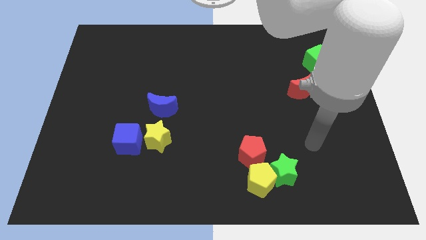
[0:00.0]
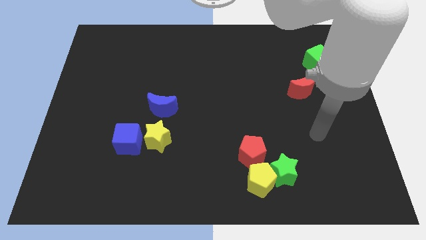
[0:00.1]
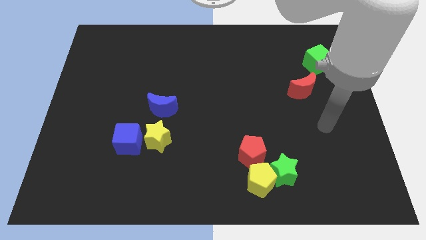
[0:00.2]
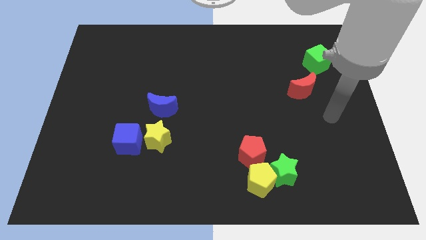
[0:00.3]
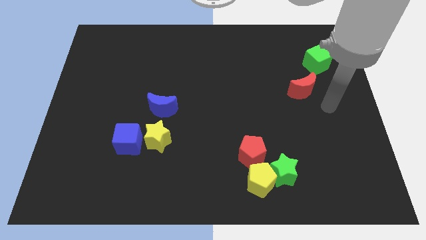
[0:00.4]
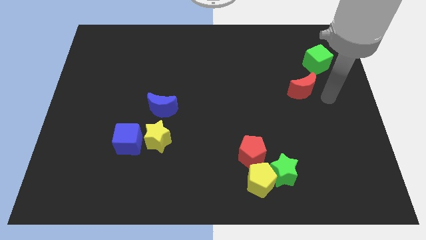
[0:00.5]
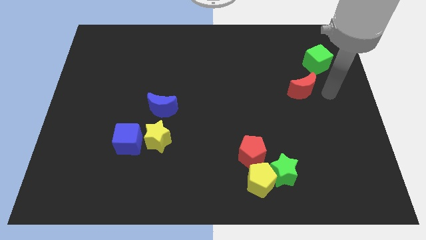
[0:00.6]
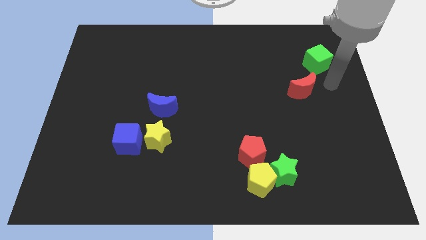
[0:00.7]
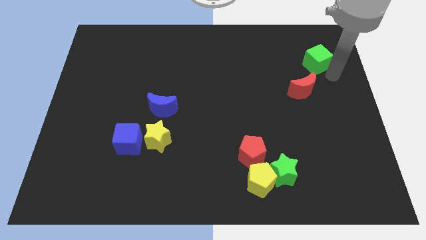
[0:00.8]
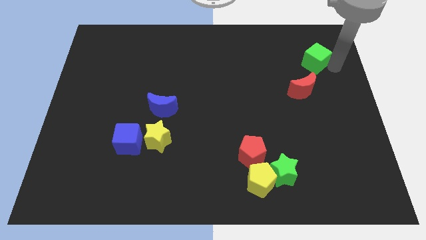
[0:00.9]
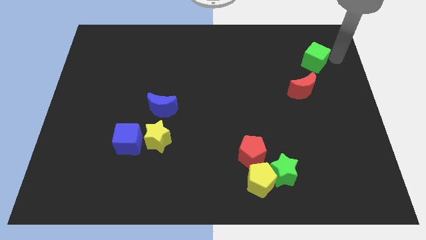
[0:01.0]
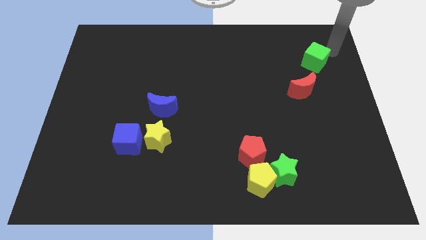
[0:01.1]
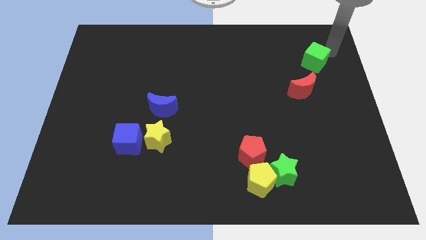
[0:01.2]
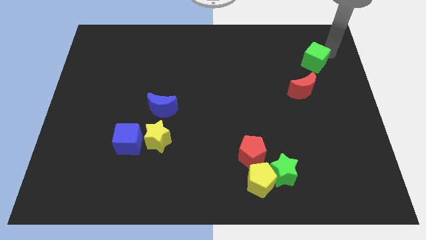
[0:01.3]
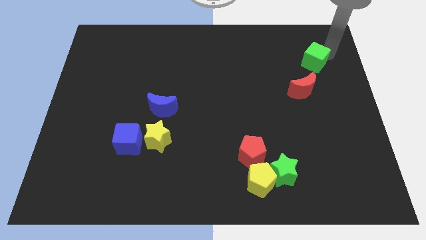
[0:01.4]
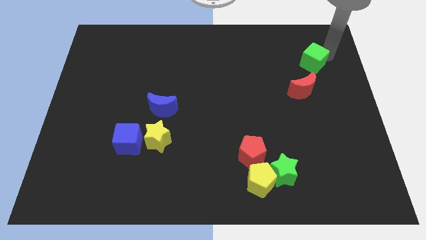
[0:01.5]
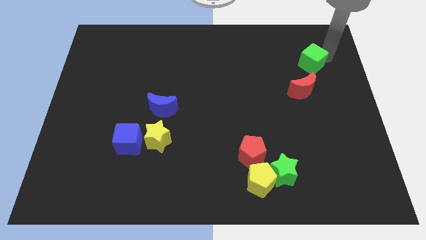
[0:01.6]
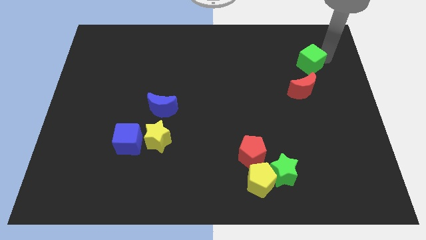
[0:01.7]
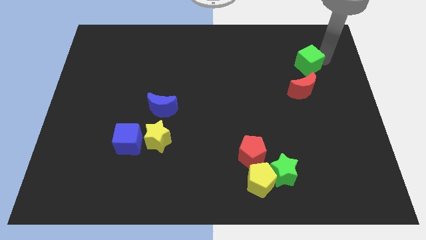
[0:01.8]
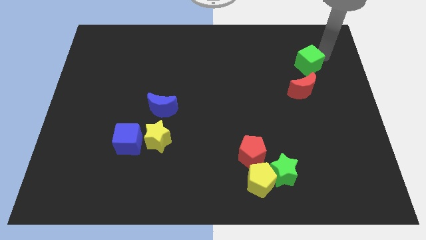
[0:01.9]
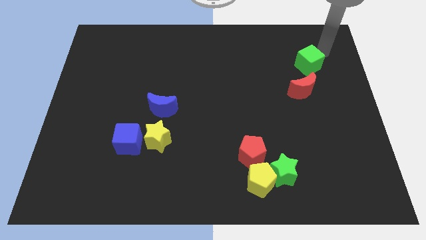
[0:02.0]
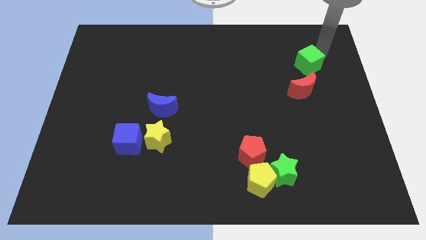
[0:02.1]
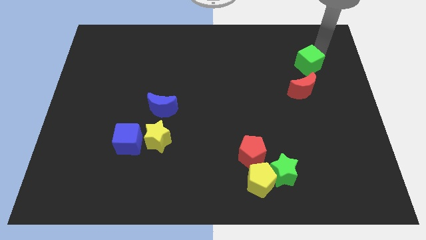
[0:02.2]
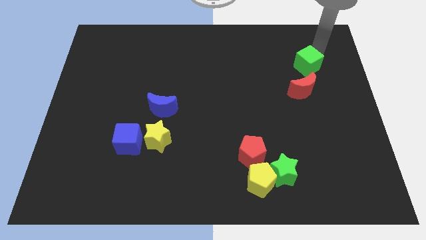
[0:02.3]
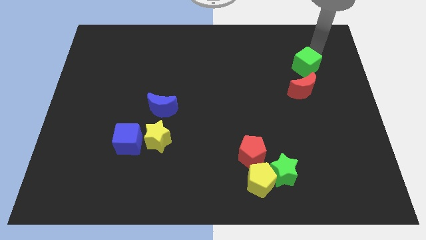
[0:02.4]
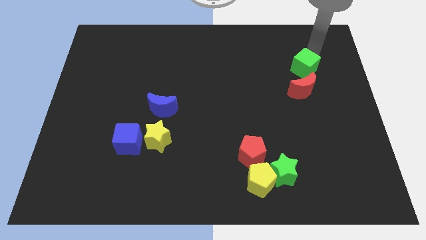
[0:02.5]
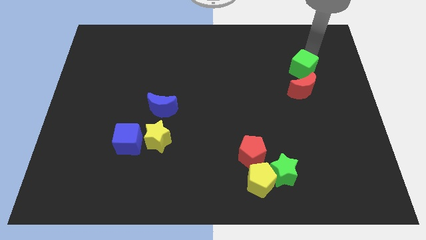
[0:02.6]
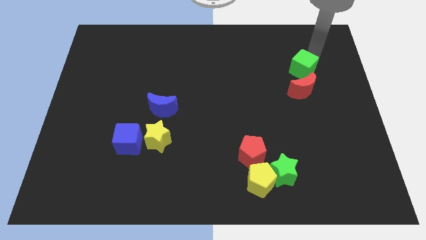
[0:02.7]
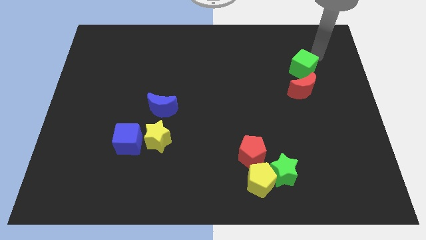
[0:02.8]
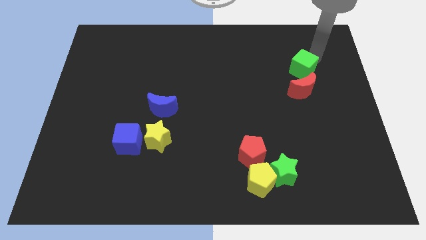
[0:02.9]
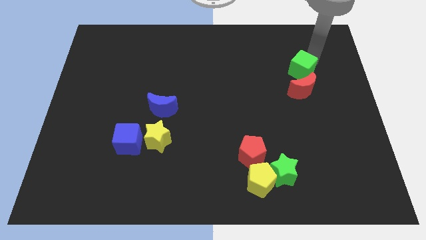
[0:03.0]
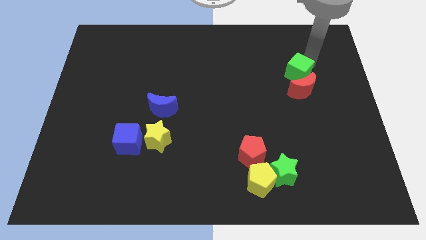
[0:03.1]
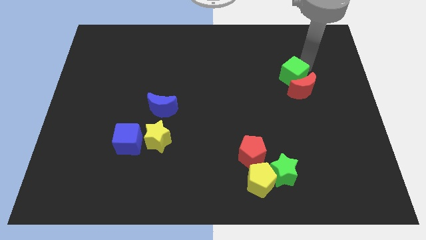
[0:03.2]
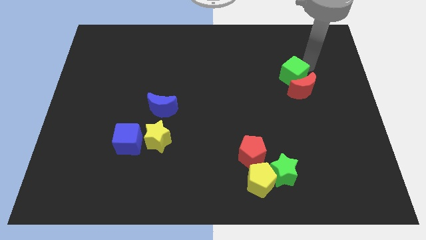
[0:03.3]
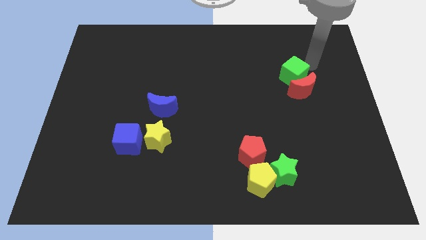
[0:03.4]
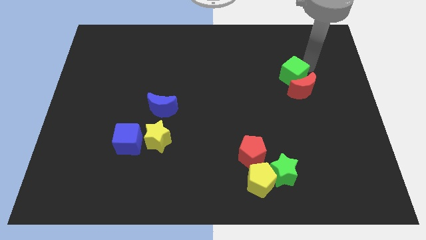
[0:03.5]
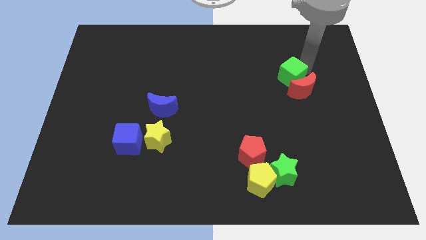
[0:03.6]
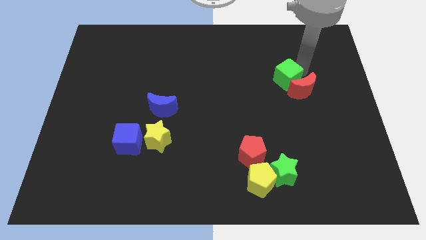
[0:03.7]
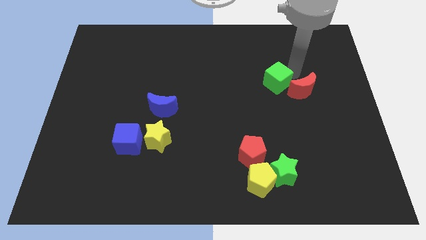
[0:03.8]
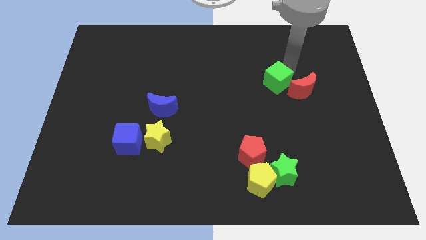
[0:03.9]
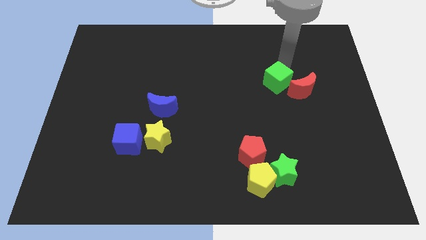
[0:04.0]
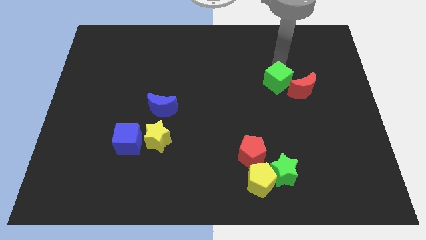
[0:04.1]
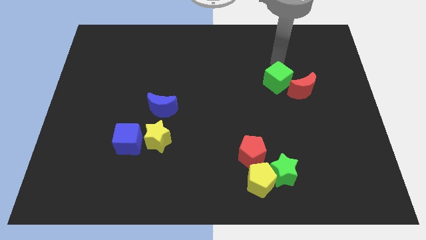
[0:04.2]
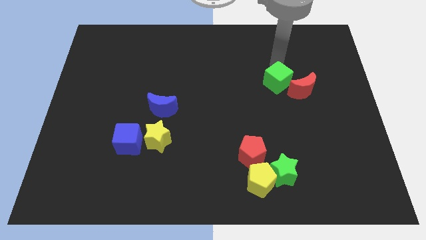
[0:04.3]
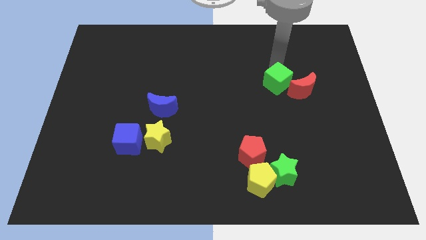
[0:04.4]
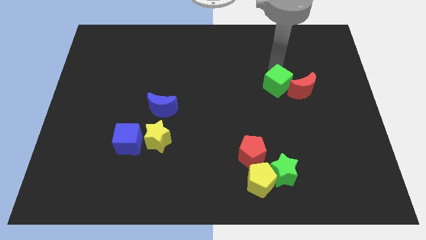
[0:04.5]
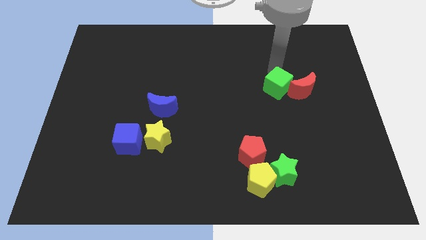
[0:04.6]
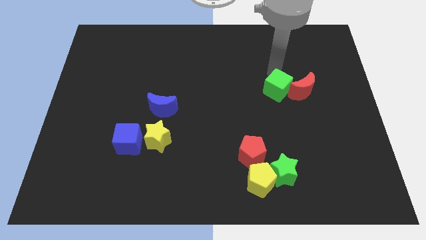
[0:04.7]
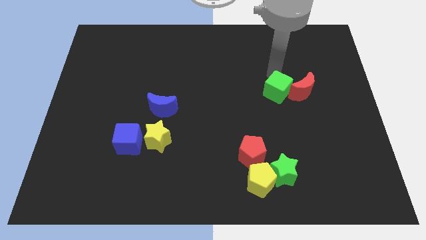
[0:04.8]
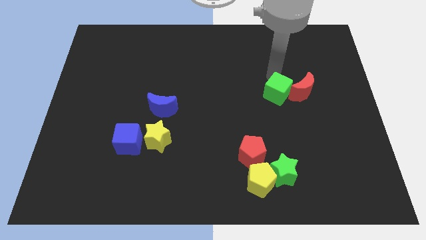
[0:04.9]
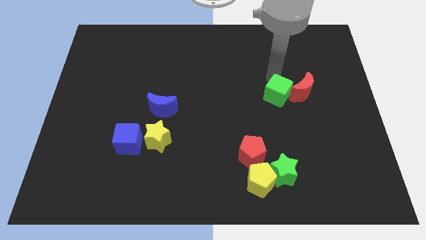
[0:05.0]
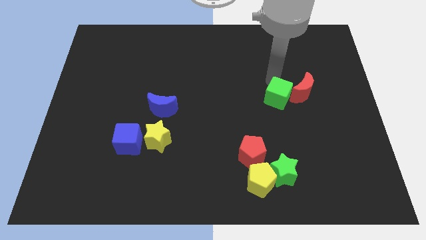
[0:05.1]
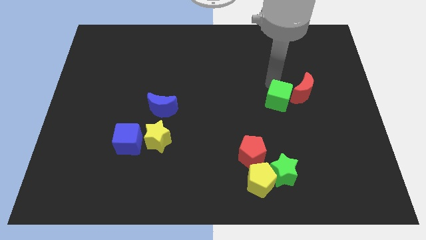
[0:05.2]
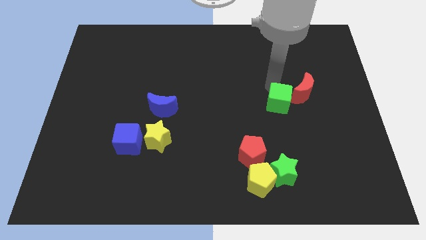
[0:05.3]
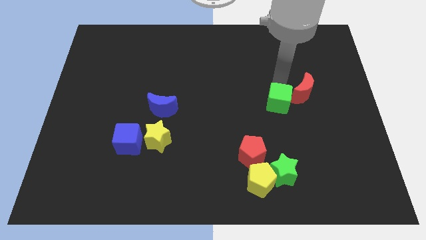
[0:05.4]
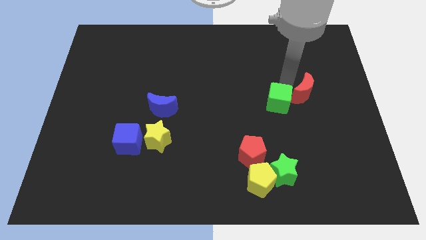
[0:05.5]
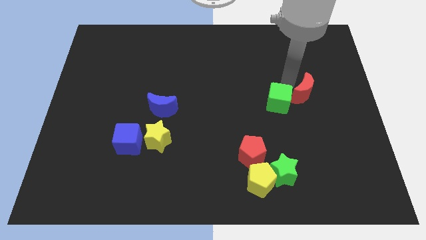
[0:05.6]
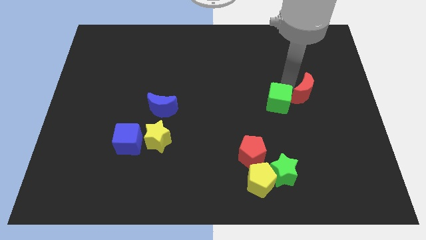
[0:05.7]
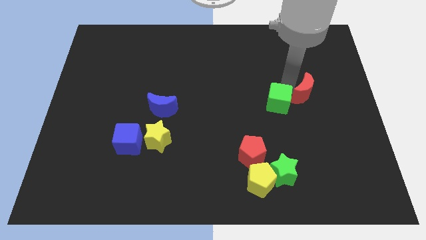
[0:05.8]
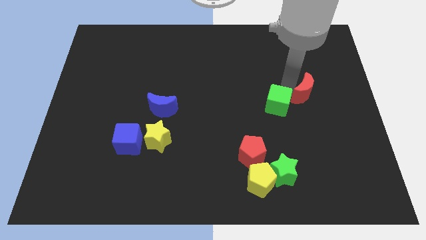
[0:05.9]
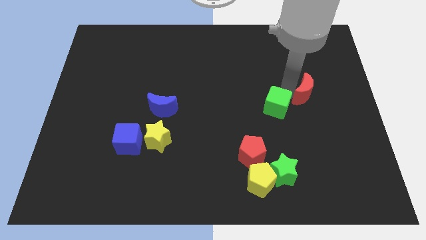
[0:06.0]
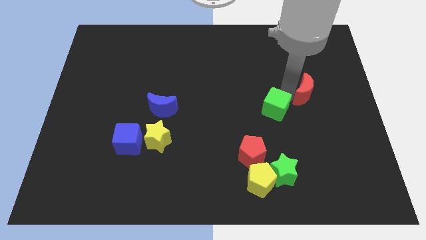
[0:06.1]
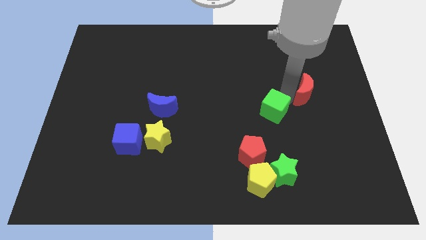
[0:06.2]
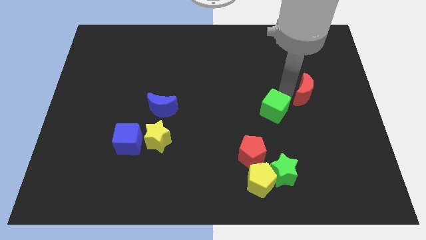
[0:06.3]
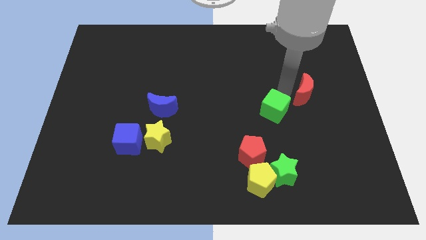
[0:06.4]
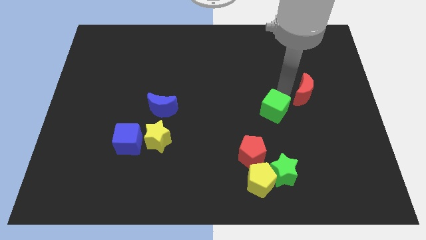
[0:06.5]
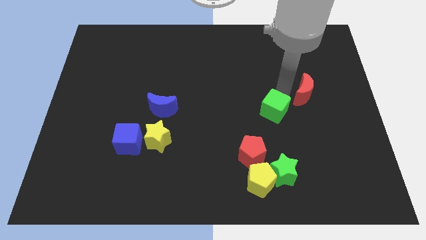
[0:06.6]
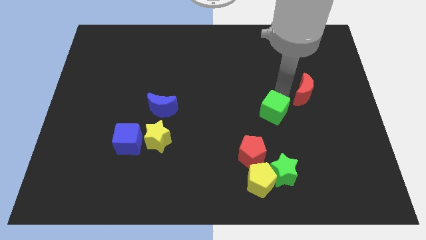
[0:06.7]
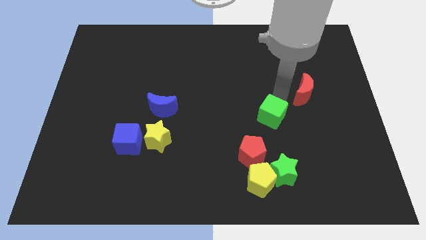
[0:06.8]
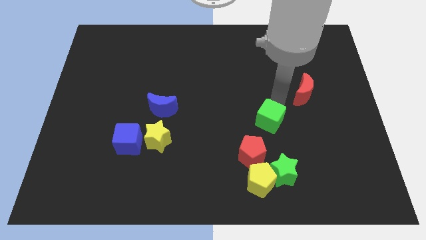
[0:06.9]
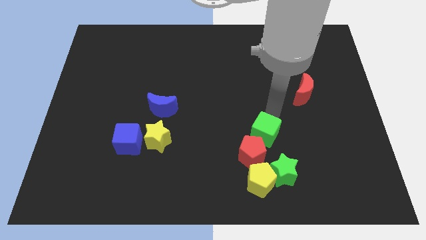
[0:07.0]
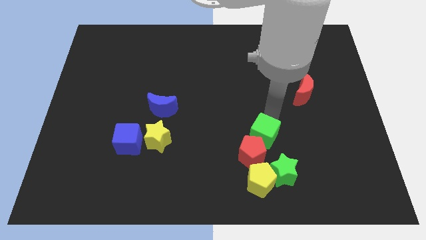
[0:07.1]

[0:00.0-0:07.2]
push the green cube close to the red pentagon

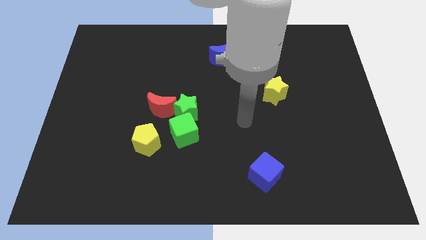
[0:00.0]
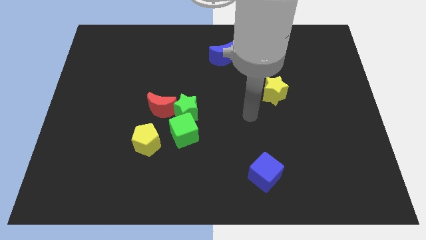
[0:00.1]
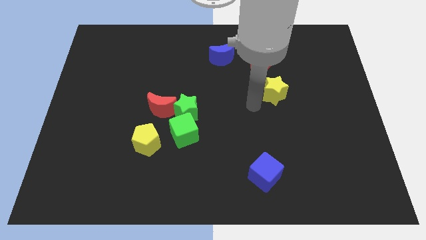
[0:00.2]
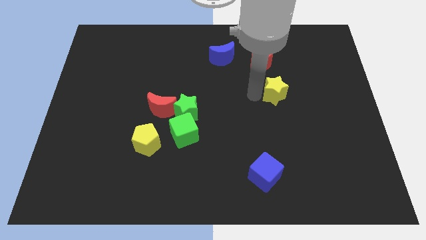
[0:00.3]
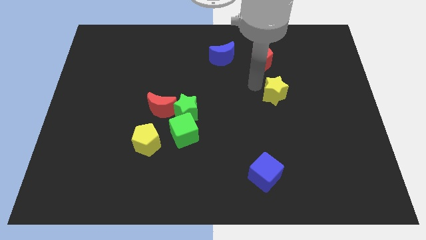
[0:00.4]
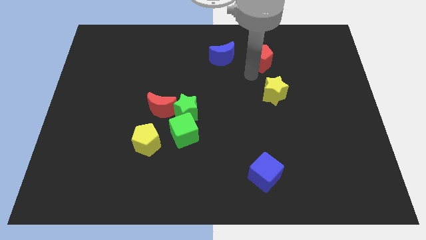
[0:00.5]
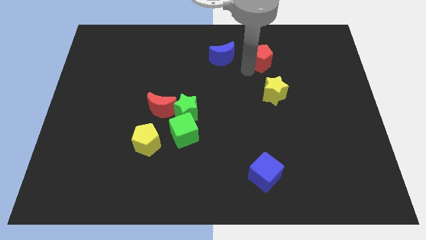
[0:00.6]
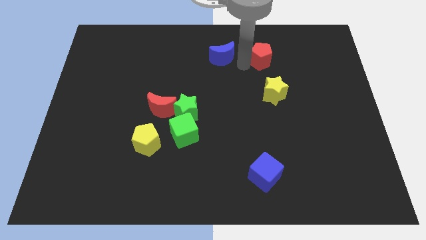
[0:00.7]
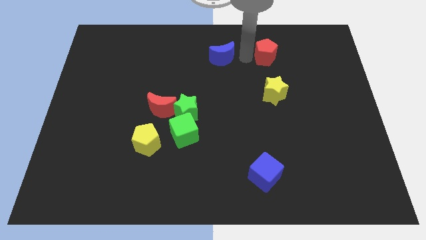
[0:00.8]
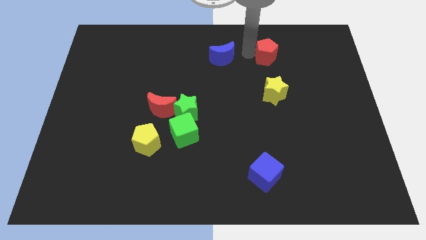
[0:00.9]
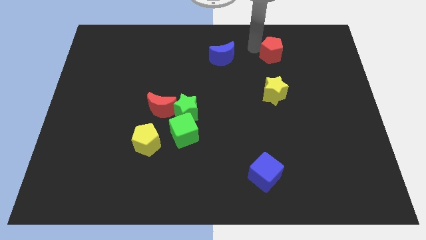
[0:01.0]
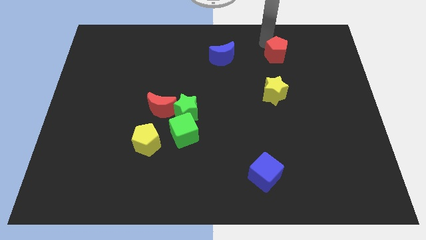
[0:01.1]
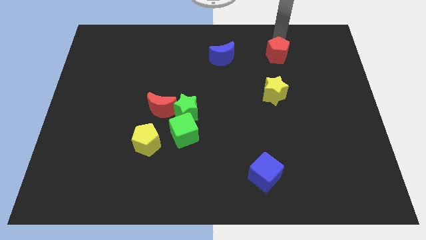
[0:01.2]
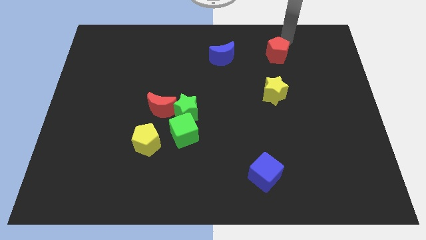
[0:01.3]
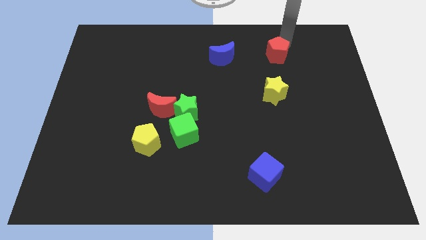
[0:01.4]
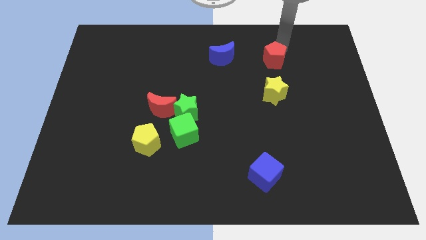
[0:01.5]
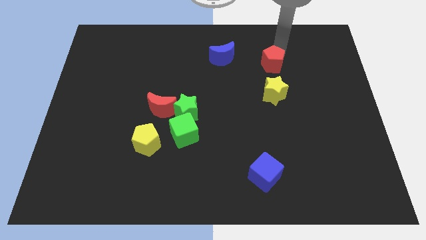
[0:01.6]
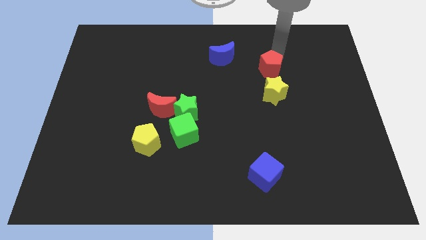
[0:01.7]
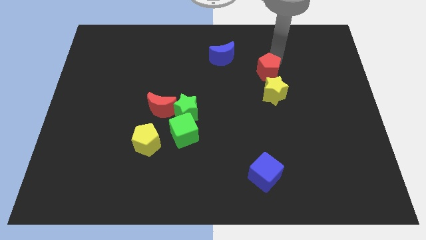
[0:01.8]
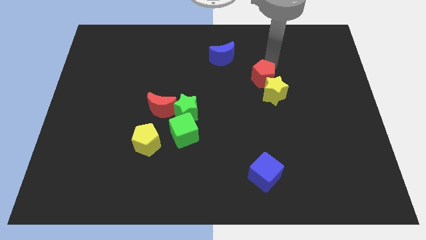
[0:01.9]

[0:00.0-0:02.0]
move the red pentagon next to the yellow star
